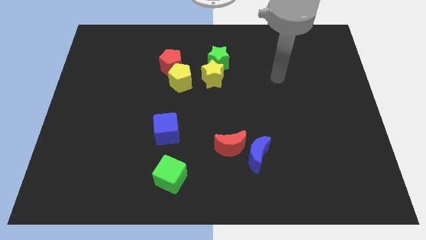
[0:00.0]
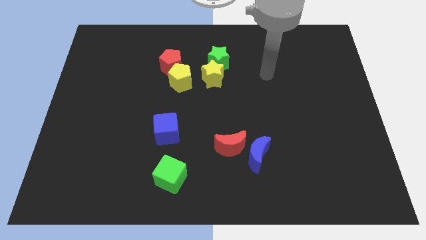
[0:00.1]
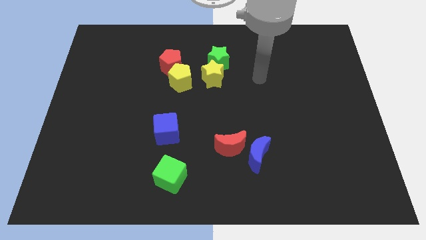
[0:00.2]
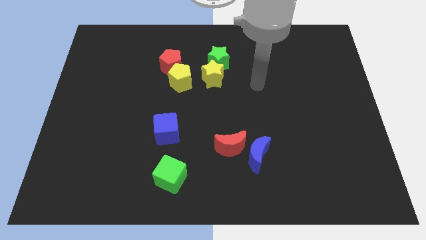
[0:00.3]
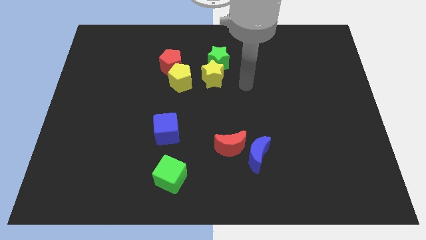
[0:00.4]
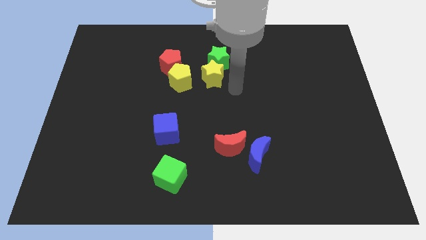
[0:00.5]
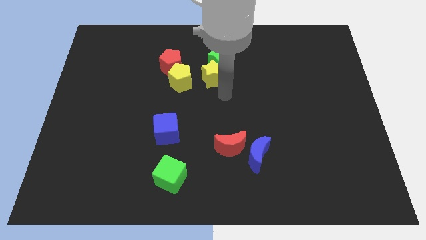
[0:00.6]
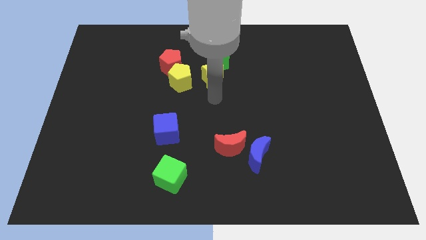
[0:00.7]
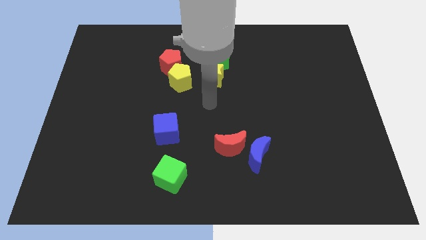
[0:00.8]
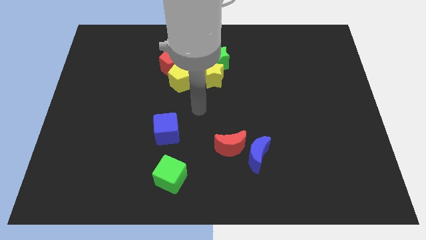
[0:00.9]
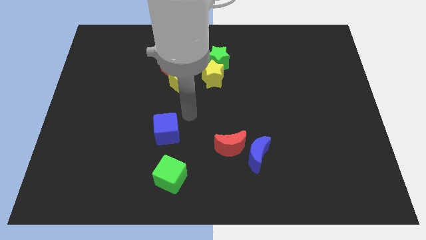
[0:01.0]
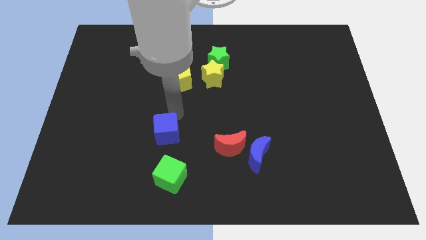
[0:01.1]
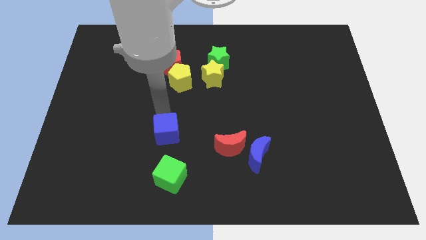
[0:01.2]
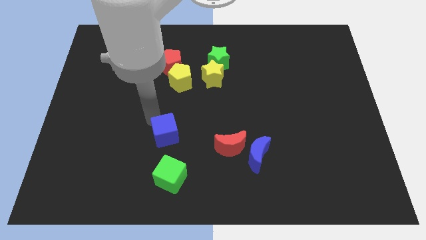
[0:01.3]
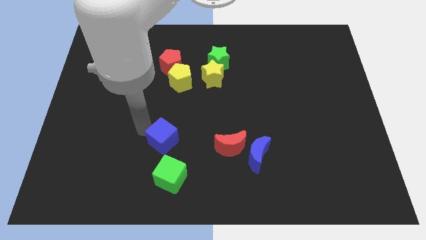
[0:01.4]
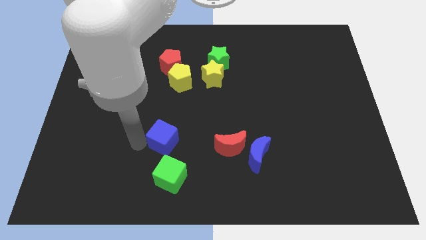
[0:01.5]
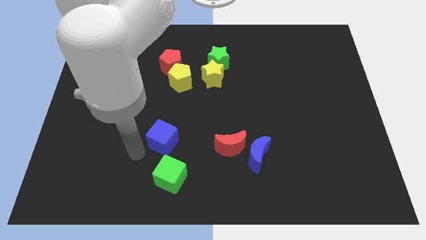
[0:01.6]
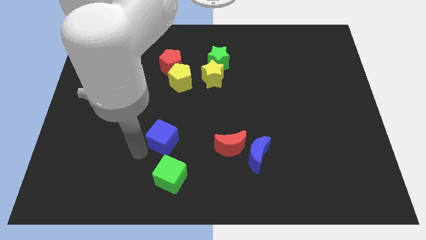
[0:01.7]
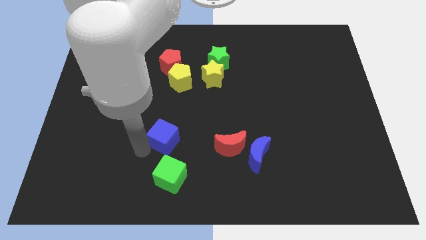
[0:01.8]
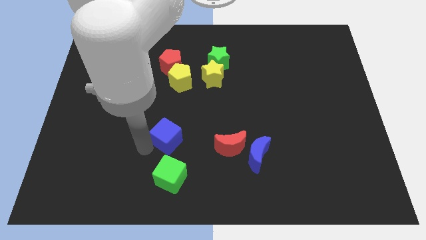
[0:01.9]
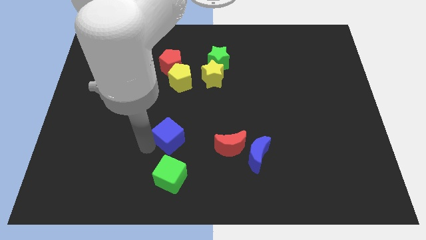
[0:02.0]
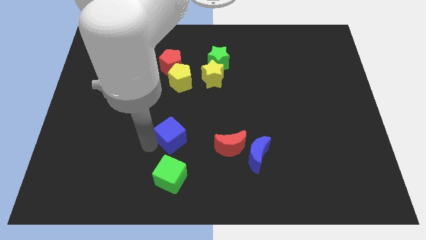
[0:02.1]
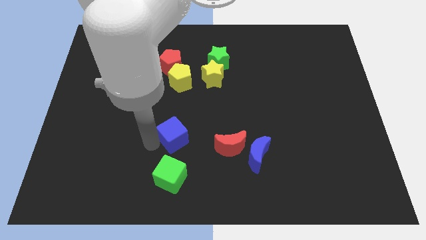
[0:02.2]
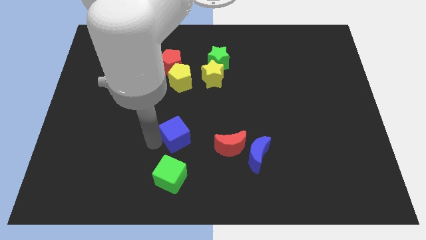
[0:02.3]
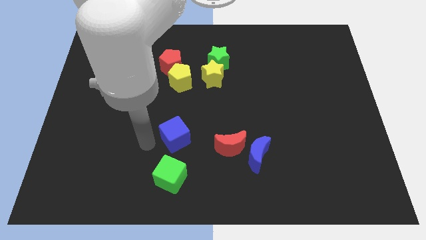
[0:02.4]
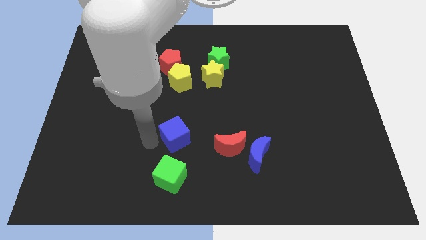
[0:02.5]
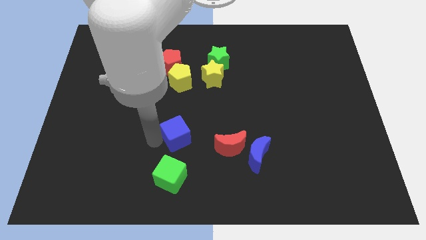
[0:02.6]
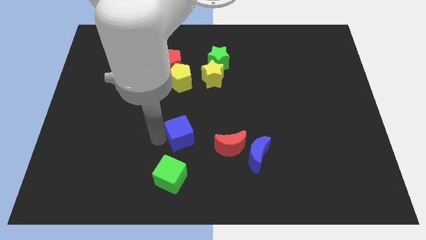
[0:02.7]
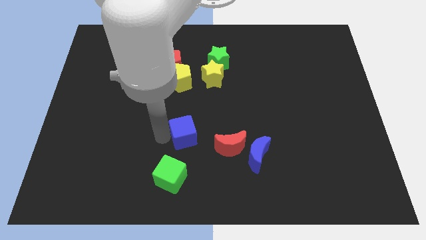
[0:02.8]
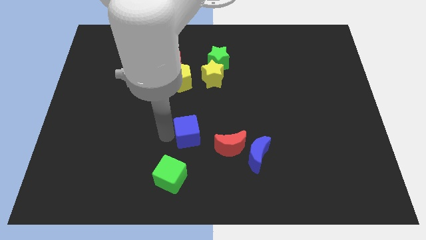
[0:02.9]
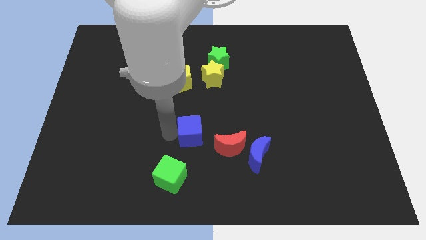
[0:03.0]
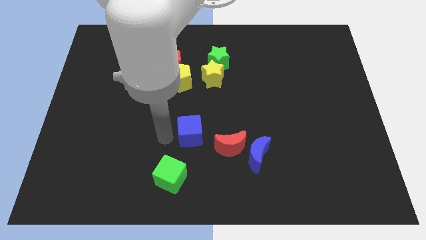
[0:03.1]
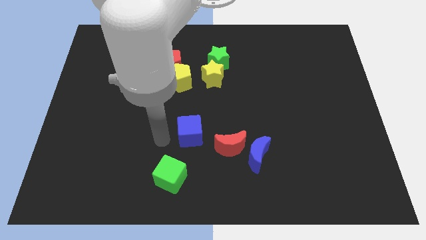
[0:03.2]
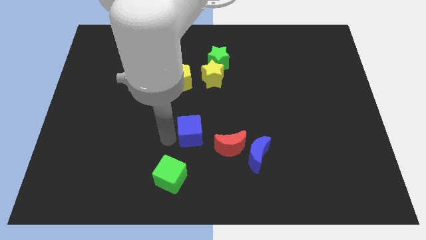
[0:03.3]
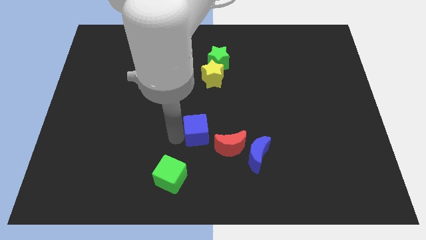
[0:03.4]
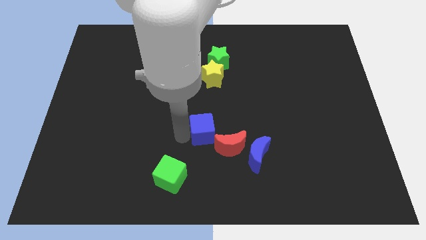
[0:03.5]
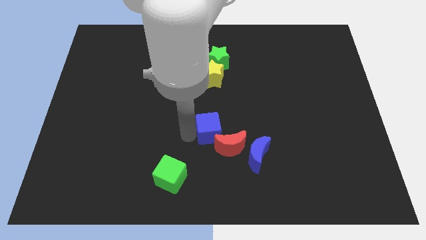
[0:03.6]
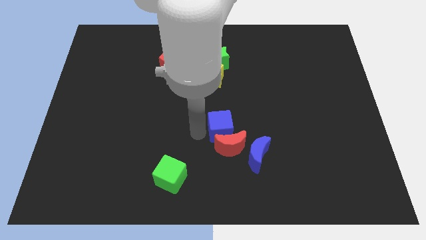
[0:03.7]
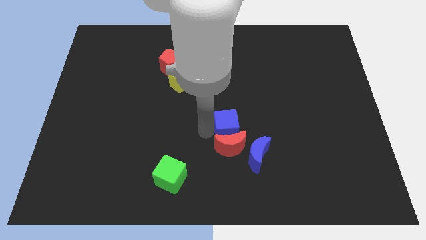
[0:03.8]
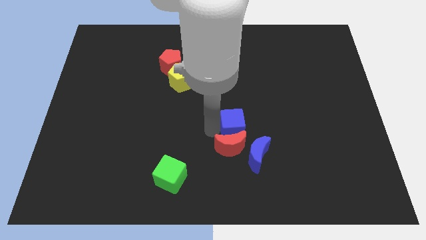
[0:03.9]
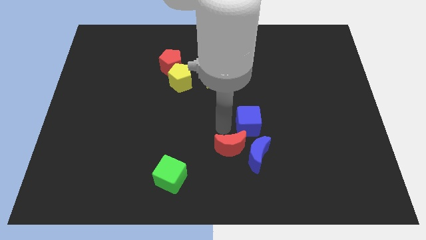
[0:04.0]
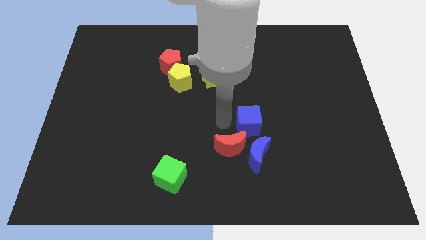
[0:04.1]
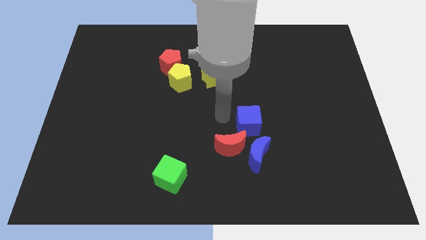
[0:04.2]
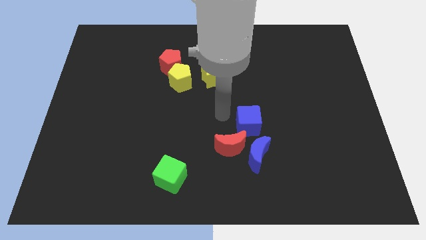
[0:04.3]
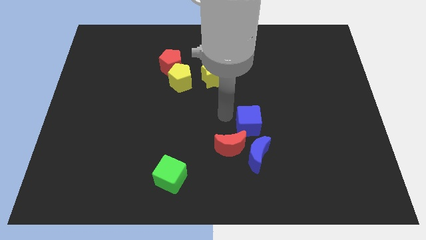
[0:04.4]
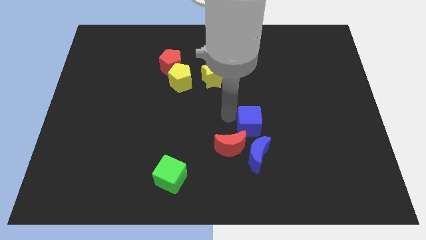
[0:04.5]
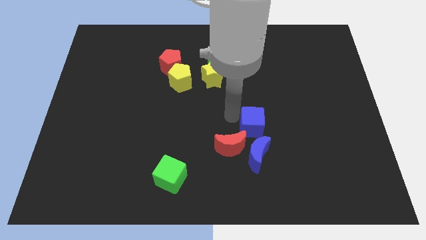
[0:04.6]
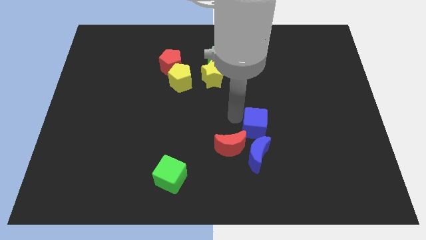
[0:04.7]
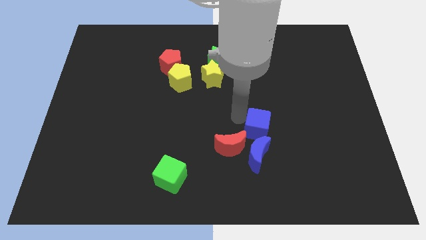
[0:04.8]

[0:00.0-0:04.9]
push the blue cube to the top right of the blue moon
